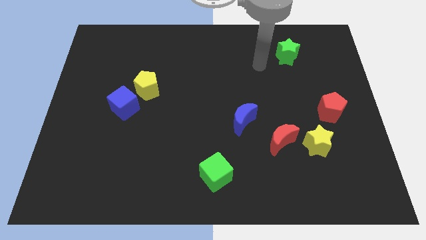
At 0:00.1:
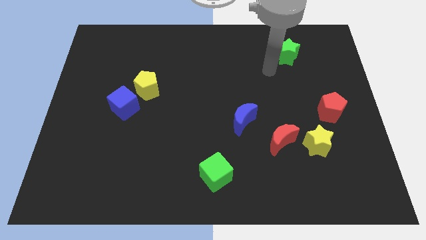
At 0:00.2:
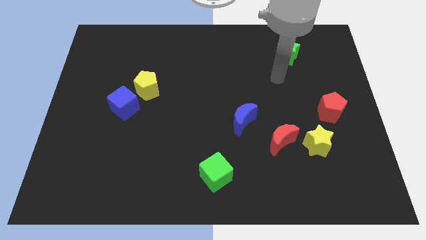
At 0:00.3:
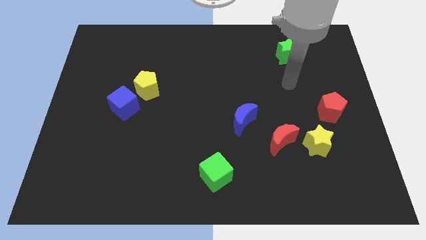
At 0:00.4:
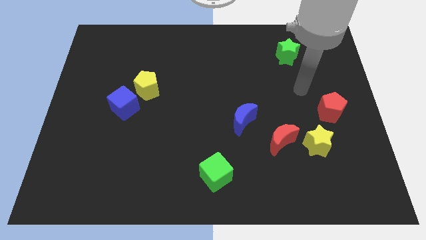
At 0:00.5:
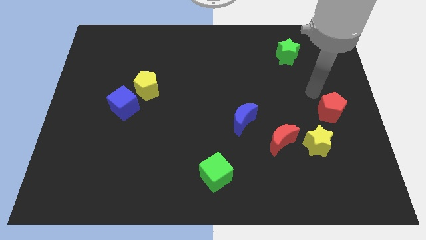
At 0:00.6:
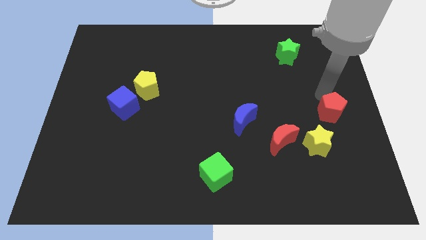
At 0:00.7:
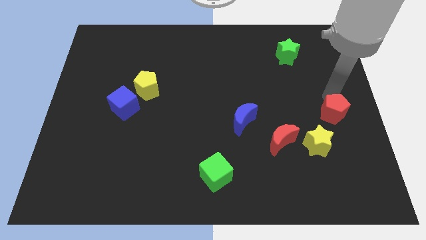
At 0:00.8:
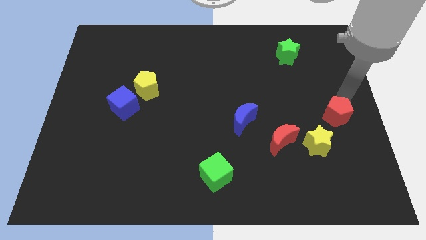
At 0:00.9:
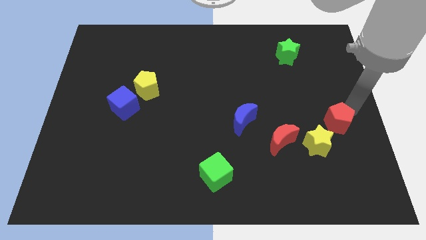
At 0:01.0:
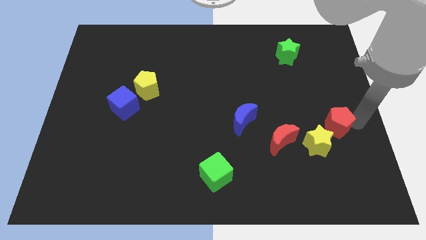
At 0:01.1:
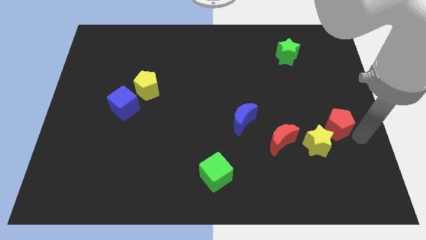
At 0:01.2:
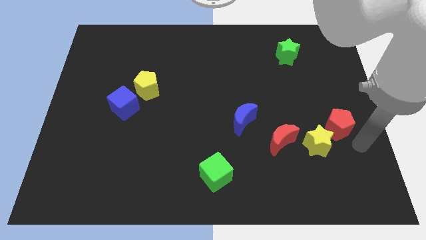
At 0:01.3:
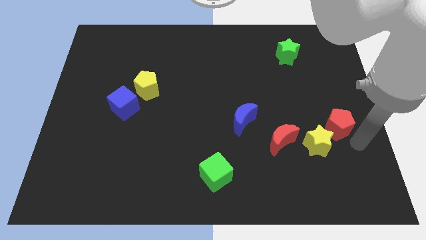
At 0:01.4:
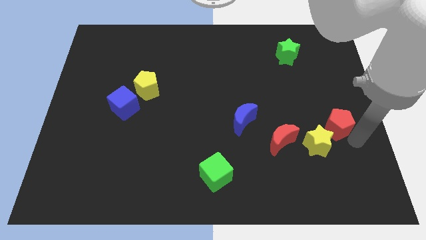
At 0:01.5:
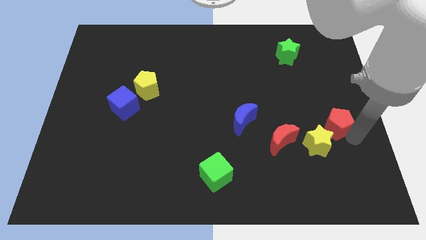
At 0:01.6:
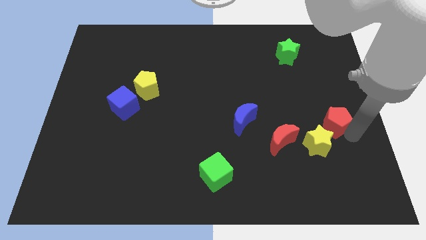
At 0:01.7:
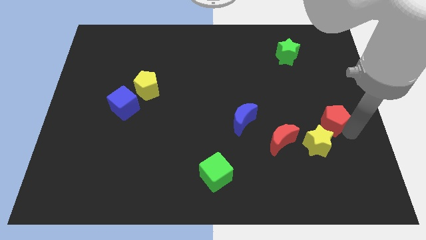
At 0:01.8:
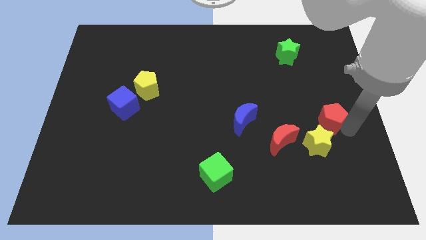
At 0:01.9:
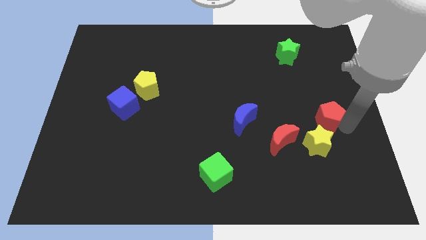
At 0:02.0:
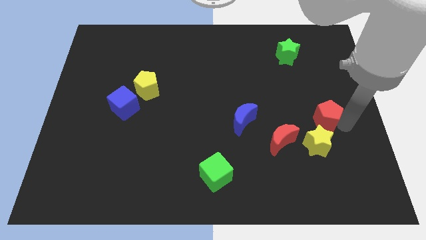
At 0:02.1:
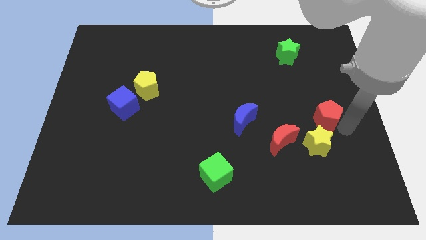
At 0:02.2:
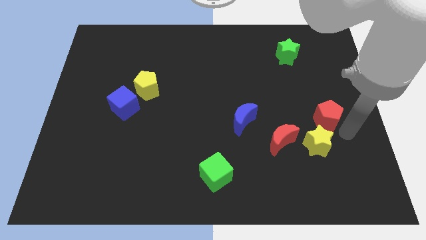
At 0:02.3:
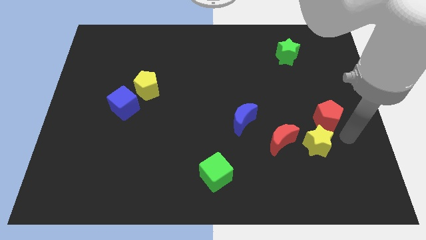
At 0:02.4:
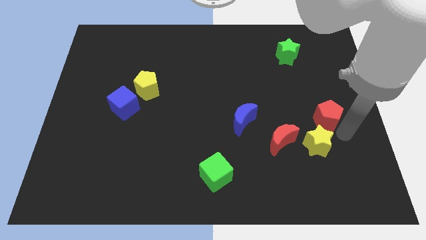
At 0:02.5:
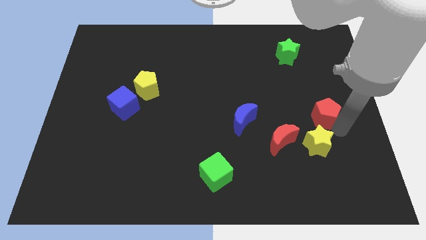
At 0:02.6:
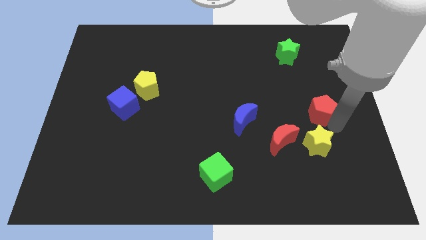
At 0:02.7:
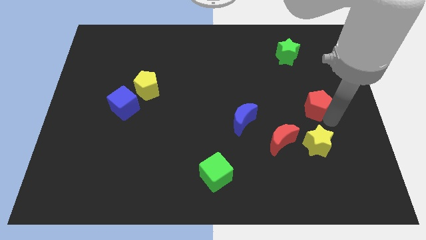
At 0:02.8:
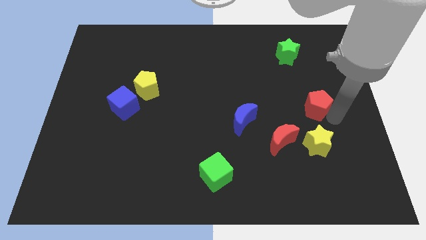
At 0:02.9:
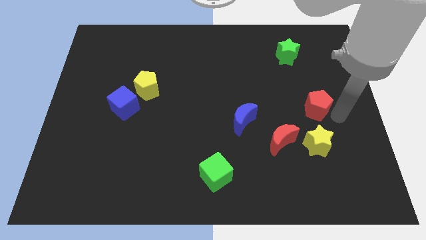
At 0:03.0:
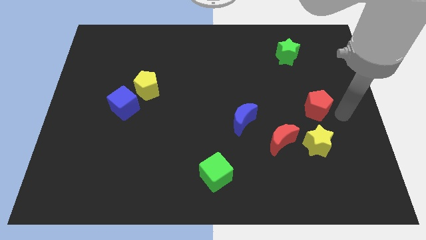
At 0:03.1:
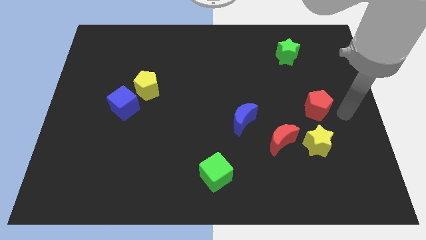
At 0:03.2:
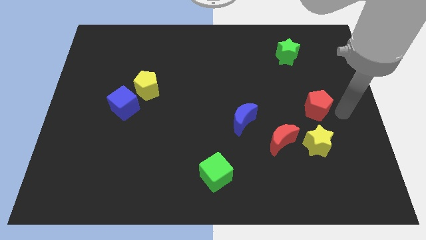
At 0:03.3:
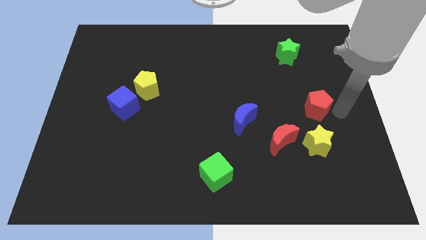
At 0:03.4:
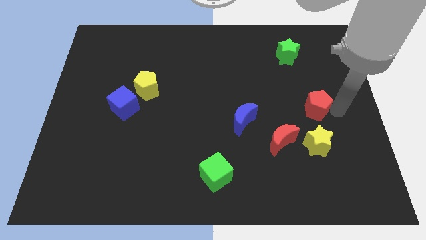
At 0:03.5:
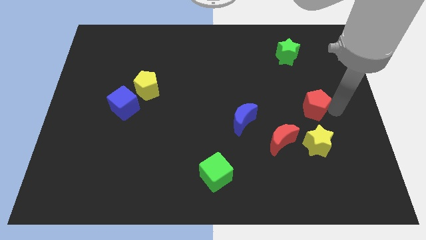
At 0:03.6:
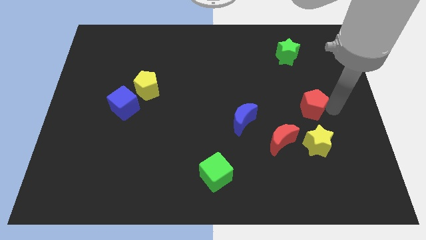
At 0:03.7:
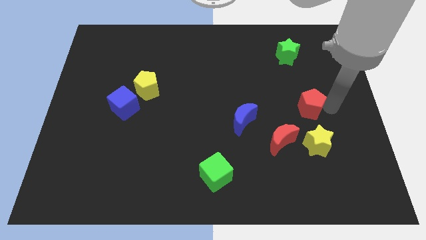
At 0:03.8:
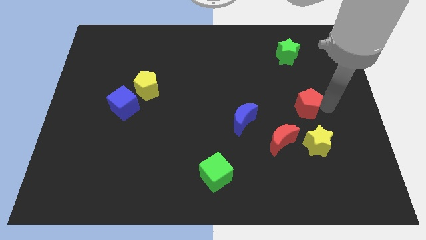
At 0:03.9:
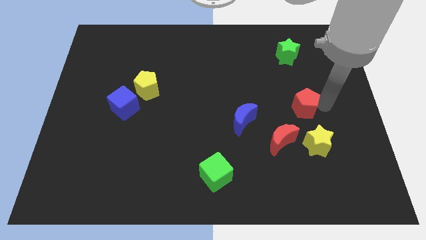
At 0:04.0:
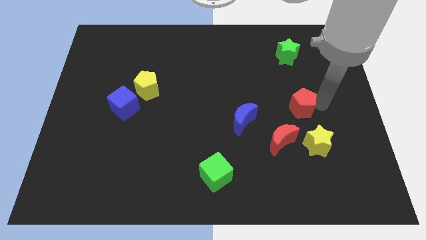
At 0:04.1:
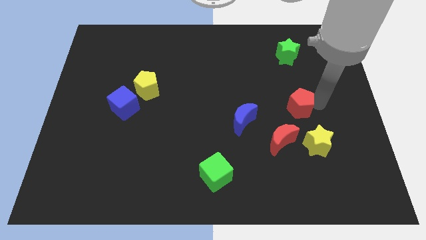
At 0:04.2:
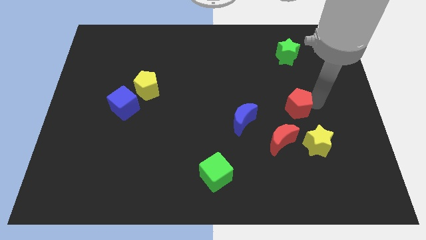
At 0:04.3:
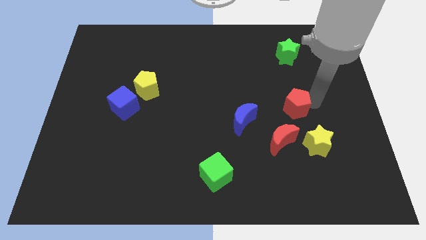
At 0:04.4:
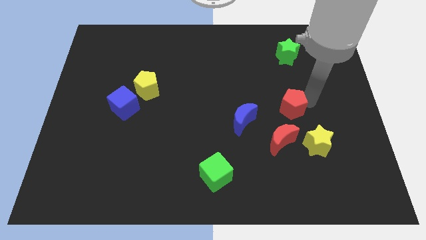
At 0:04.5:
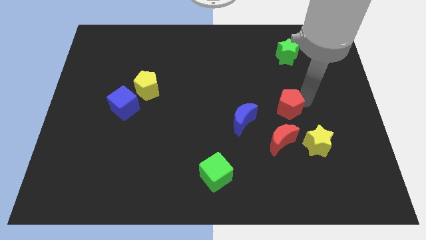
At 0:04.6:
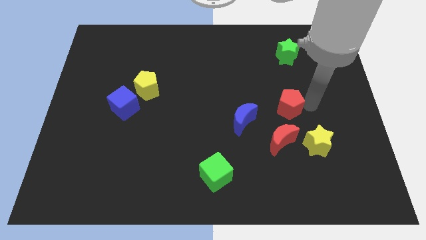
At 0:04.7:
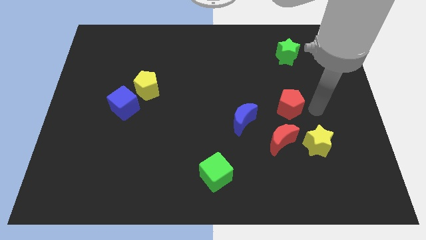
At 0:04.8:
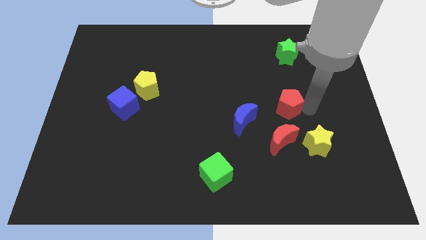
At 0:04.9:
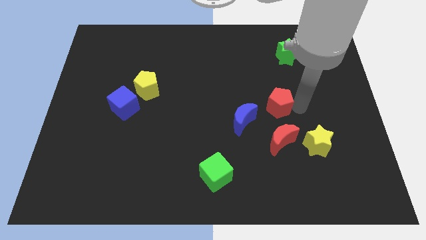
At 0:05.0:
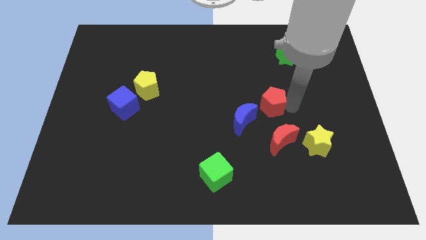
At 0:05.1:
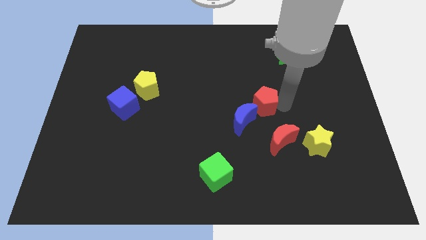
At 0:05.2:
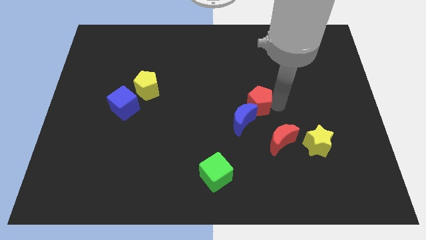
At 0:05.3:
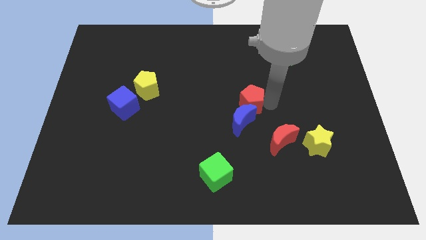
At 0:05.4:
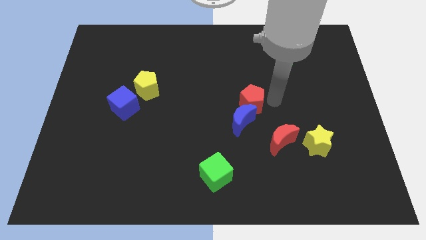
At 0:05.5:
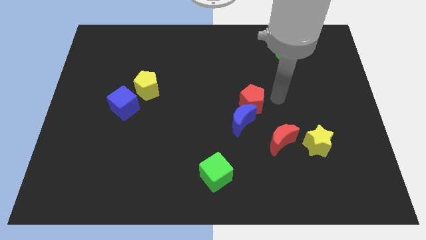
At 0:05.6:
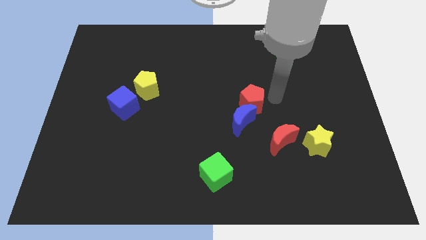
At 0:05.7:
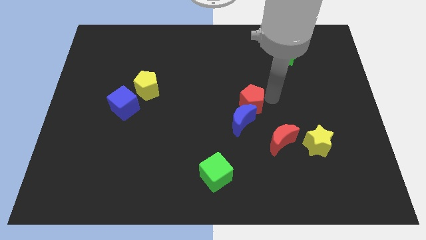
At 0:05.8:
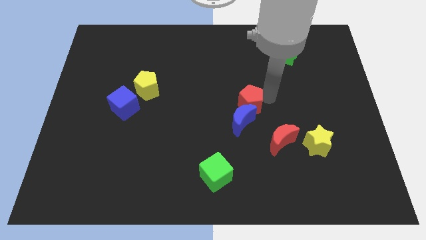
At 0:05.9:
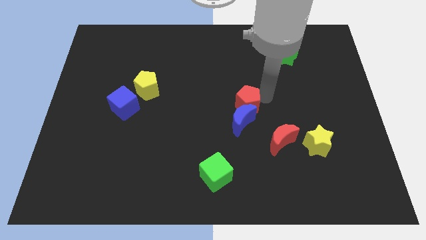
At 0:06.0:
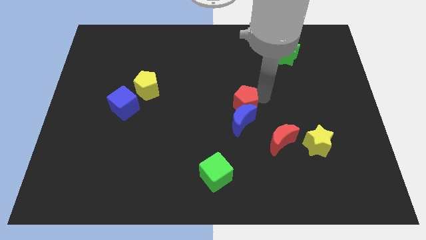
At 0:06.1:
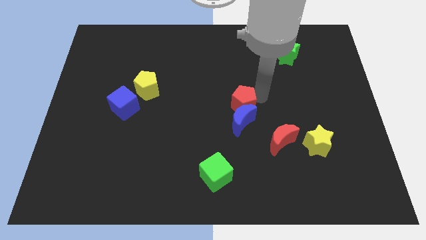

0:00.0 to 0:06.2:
move the red pentagon to the left

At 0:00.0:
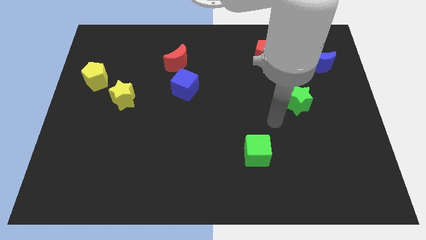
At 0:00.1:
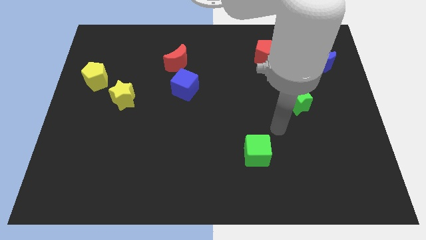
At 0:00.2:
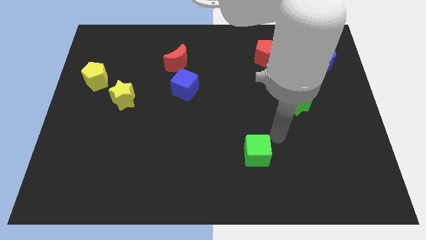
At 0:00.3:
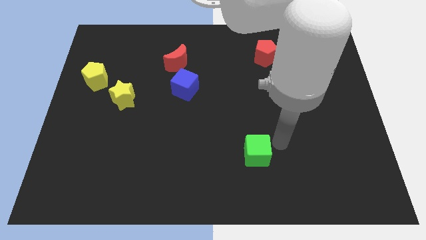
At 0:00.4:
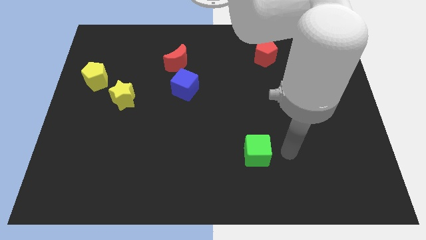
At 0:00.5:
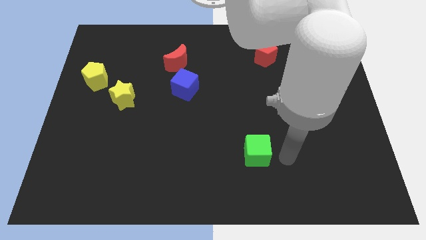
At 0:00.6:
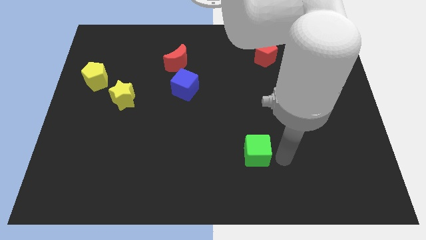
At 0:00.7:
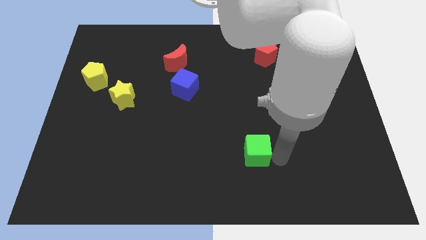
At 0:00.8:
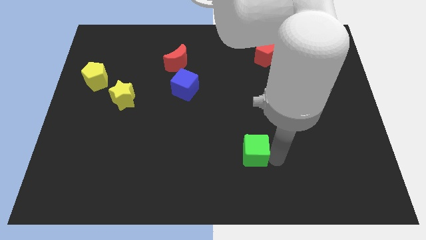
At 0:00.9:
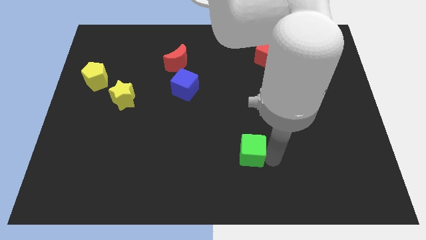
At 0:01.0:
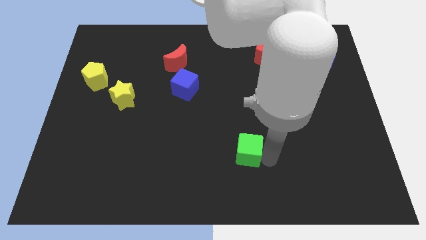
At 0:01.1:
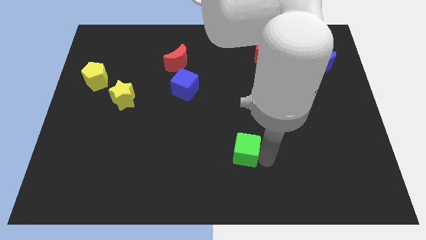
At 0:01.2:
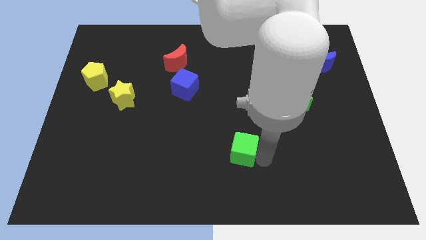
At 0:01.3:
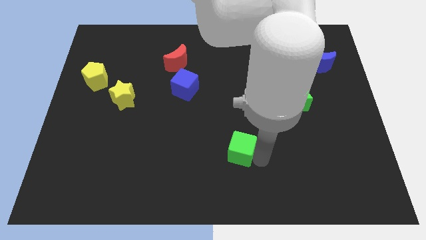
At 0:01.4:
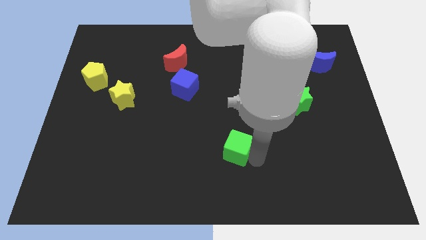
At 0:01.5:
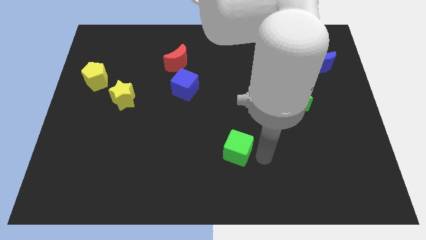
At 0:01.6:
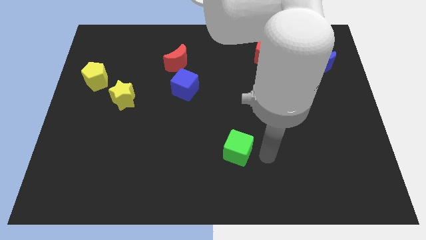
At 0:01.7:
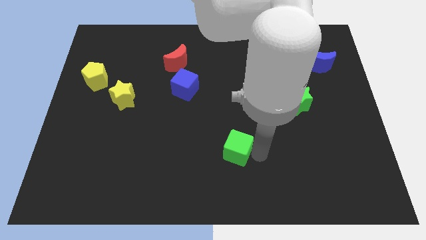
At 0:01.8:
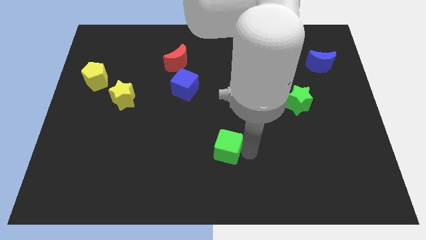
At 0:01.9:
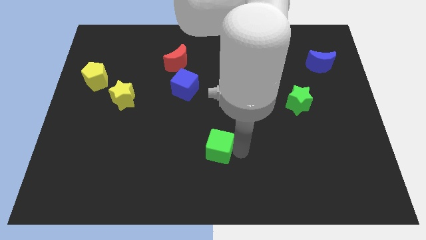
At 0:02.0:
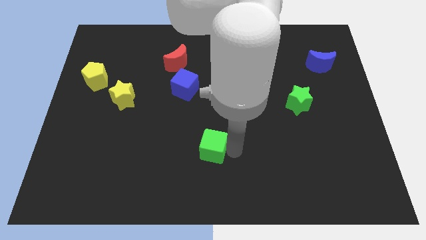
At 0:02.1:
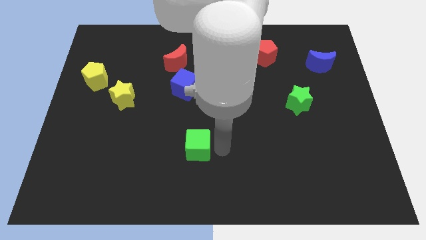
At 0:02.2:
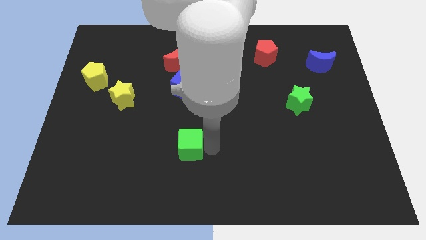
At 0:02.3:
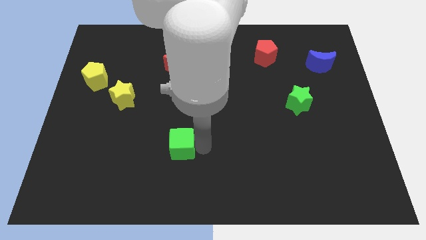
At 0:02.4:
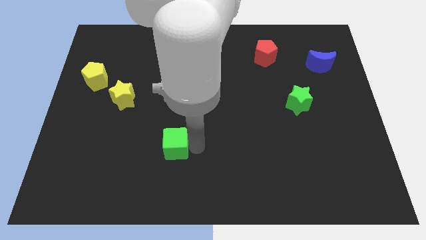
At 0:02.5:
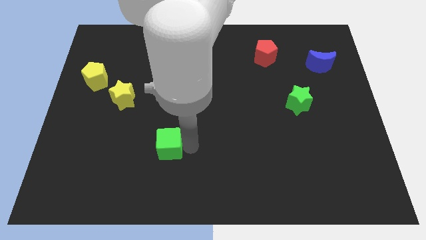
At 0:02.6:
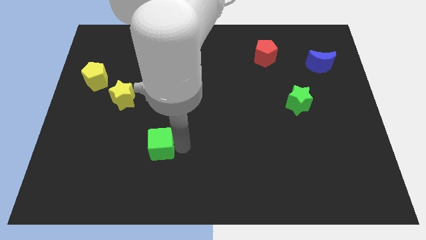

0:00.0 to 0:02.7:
move the green cube left
